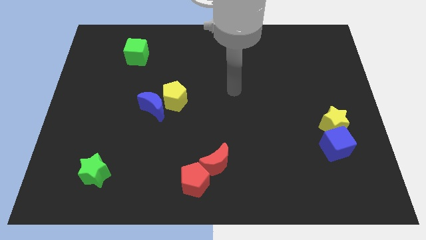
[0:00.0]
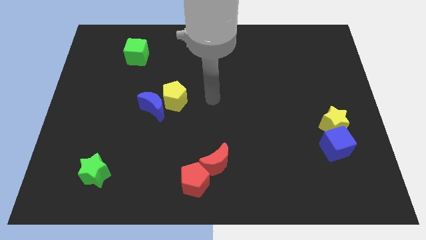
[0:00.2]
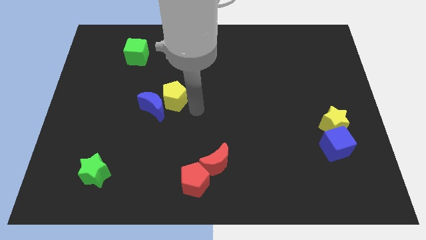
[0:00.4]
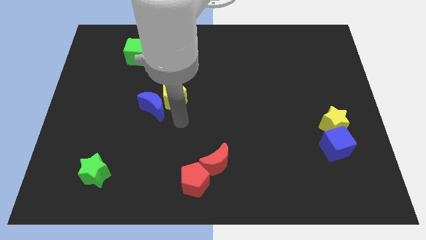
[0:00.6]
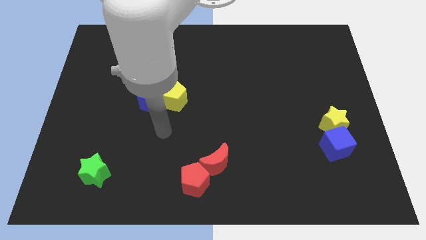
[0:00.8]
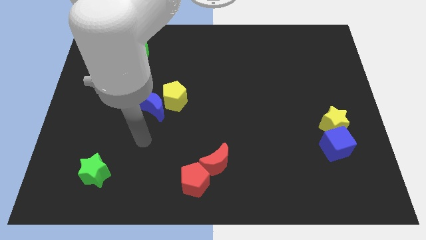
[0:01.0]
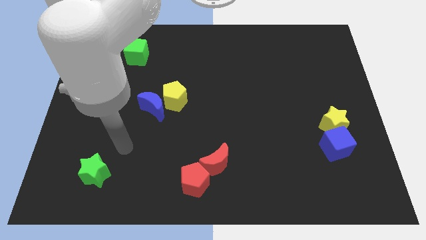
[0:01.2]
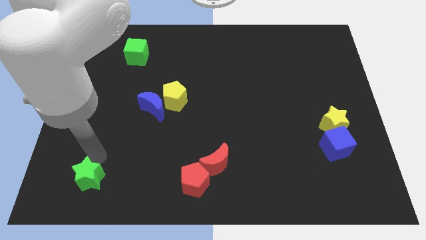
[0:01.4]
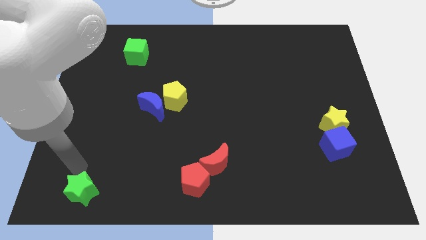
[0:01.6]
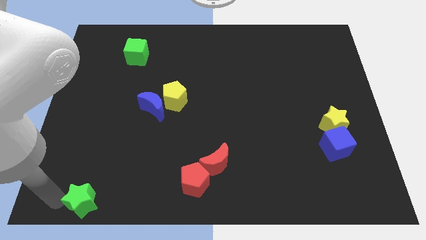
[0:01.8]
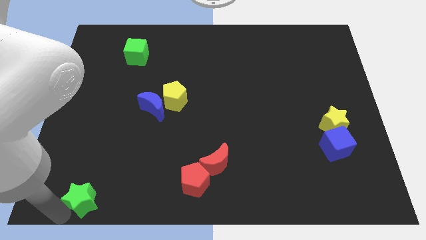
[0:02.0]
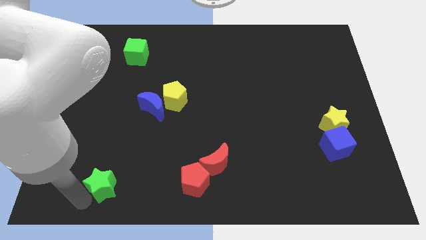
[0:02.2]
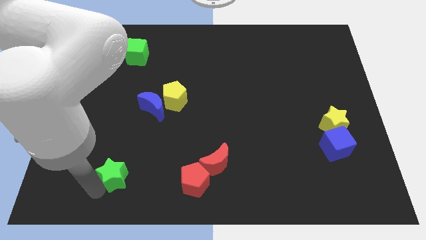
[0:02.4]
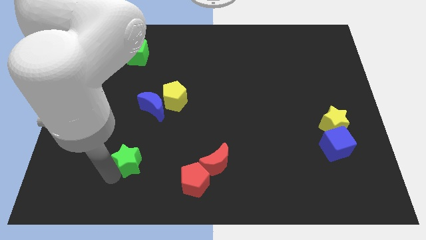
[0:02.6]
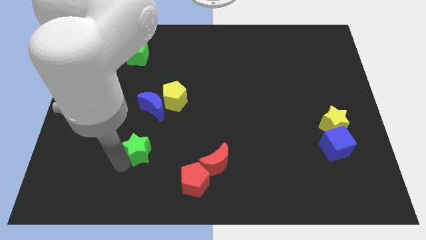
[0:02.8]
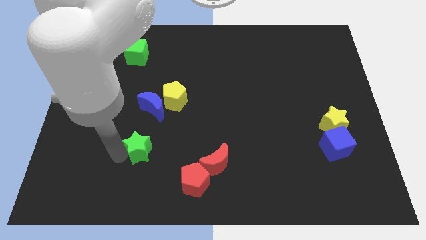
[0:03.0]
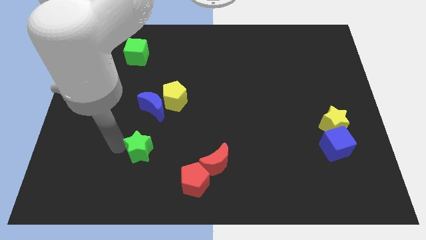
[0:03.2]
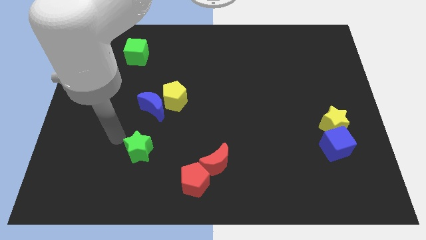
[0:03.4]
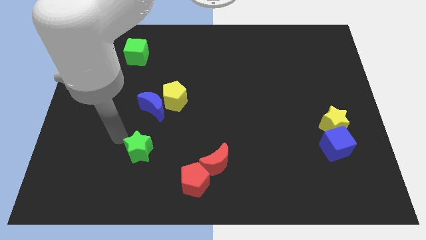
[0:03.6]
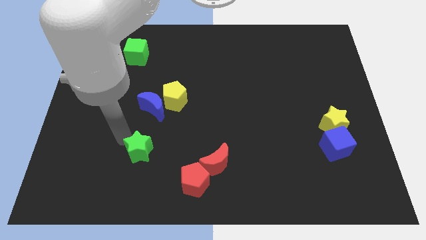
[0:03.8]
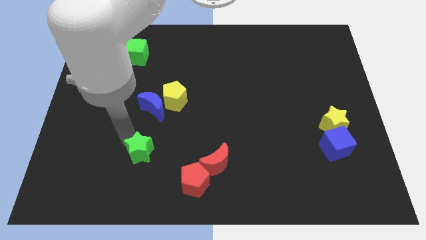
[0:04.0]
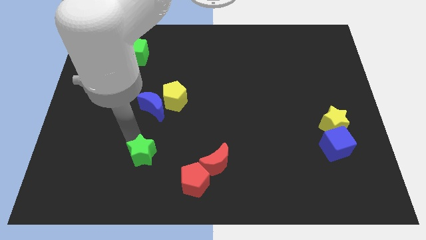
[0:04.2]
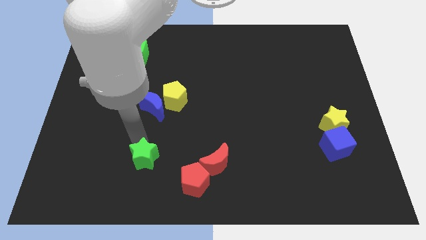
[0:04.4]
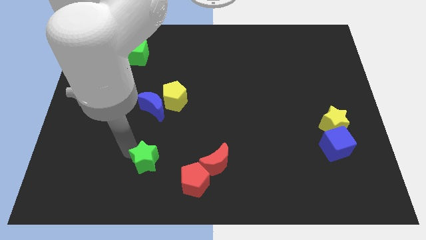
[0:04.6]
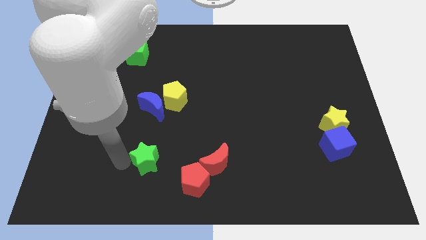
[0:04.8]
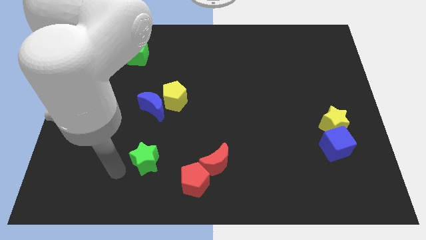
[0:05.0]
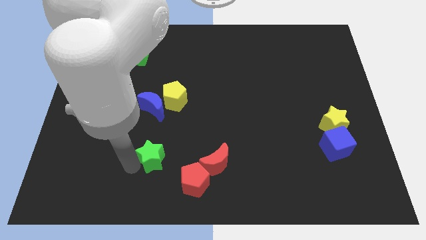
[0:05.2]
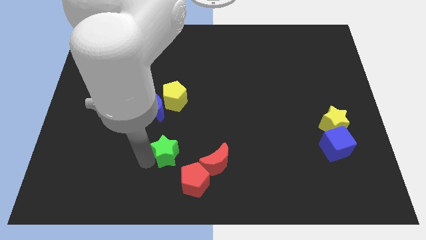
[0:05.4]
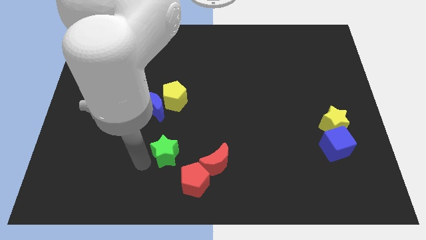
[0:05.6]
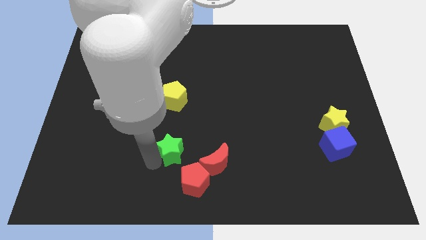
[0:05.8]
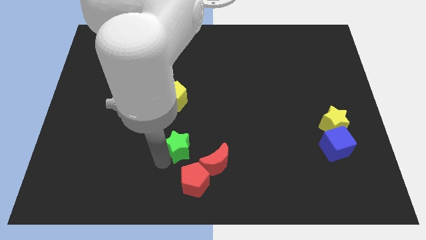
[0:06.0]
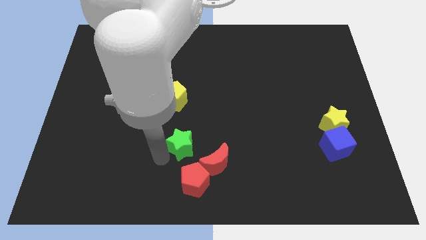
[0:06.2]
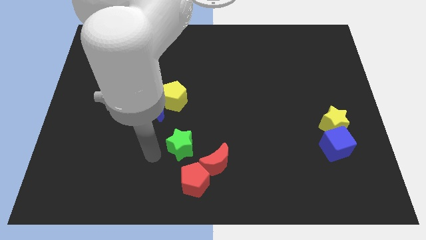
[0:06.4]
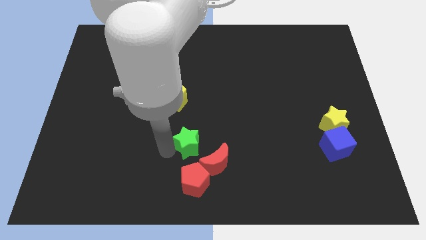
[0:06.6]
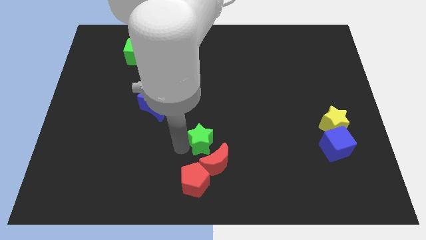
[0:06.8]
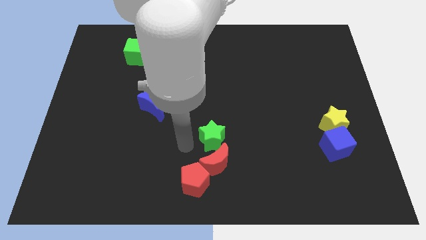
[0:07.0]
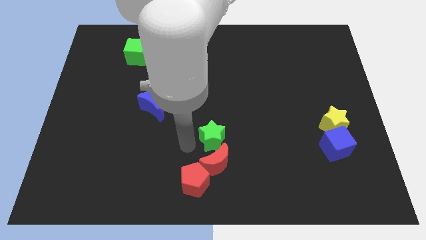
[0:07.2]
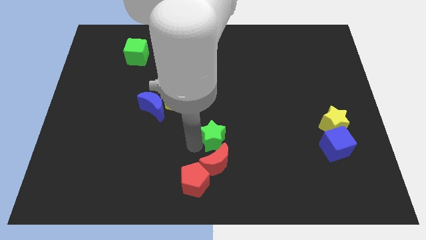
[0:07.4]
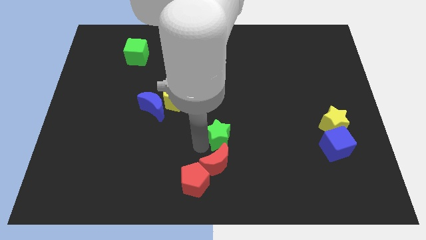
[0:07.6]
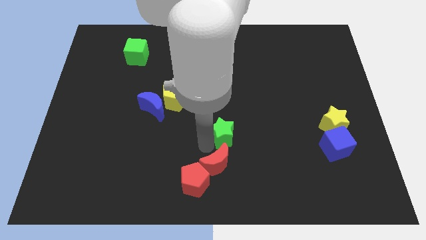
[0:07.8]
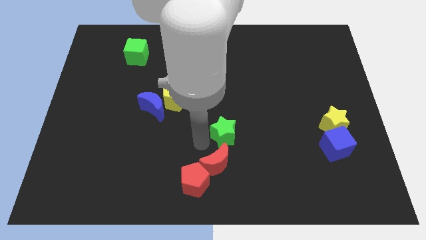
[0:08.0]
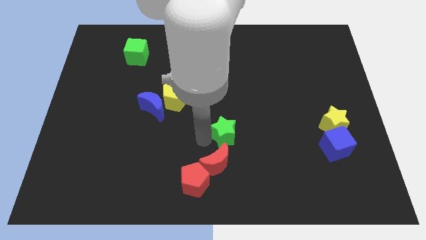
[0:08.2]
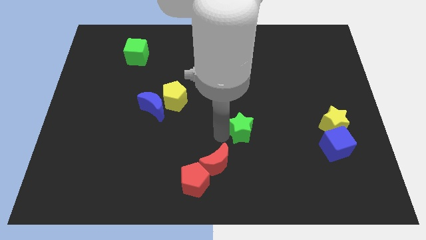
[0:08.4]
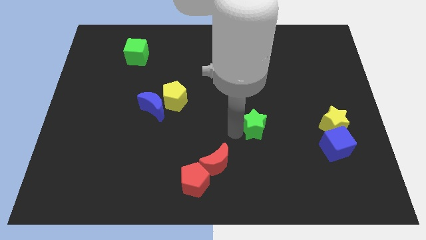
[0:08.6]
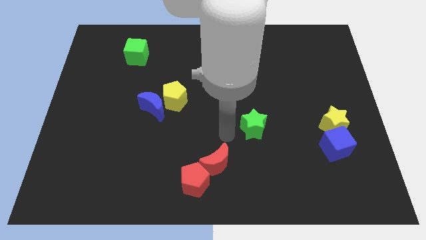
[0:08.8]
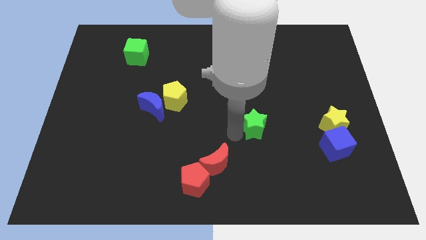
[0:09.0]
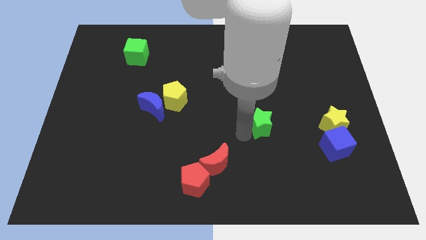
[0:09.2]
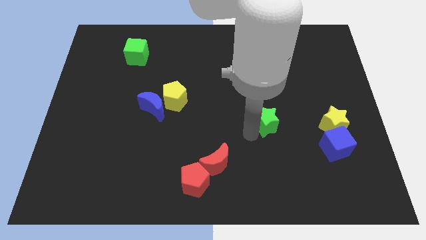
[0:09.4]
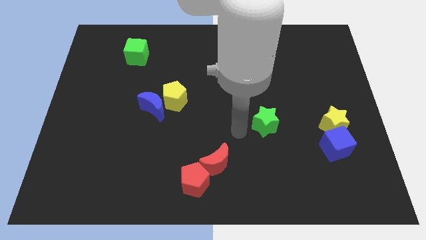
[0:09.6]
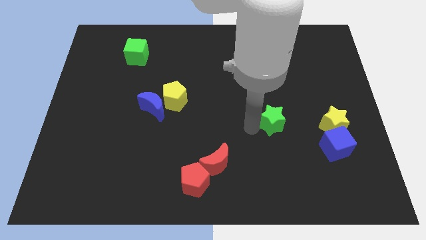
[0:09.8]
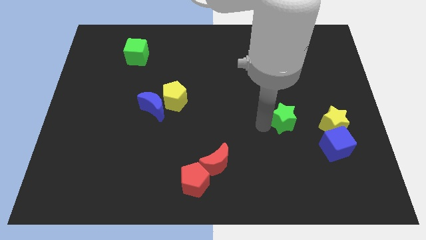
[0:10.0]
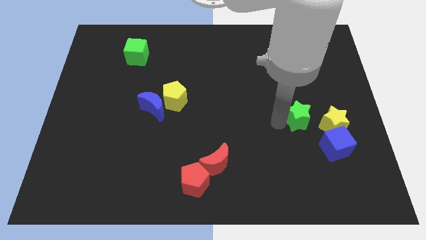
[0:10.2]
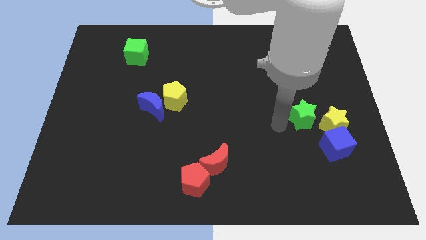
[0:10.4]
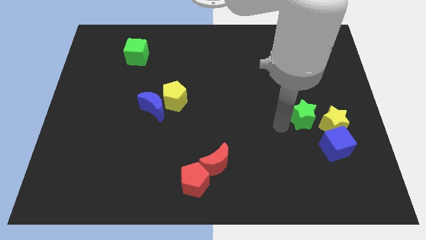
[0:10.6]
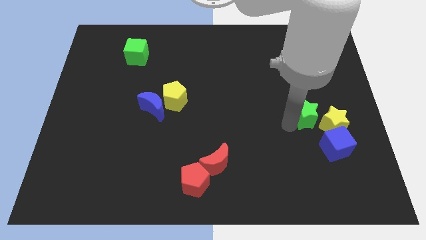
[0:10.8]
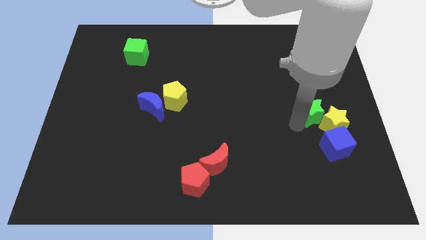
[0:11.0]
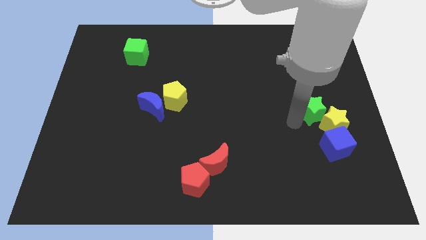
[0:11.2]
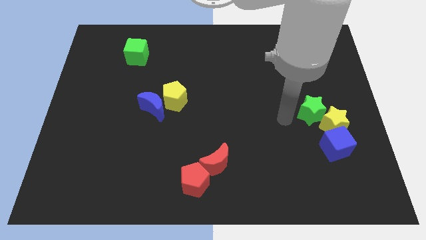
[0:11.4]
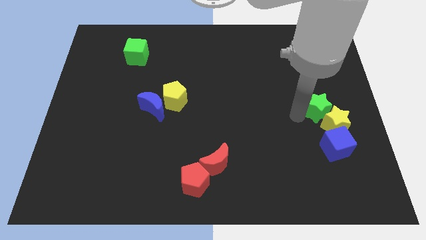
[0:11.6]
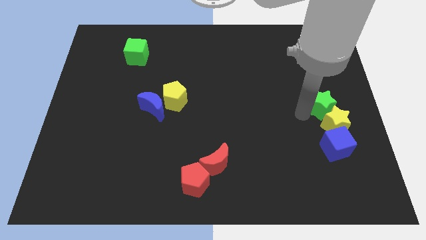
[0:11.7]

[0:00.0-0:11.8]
put the green star to the right side of the board

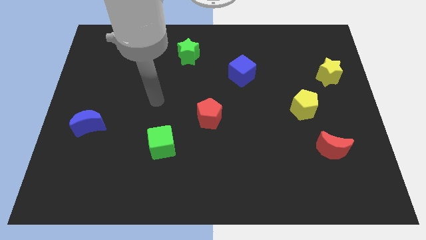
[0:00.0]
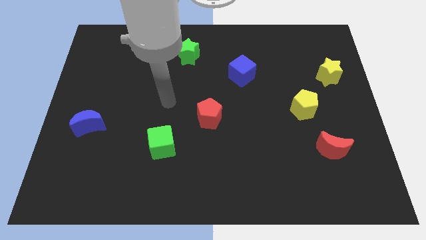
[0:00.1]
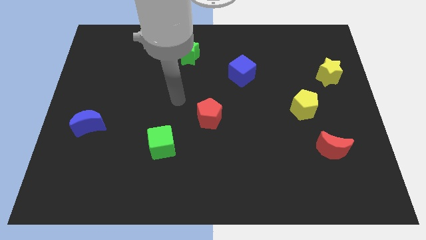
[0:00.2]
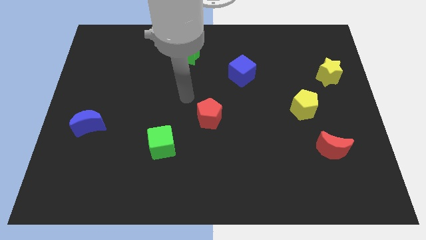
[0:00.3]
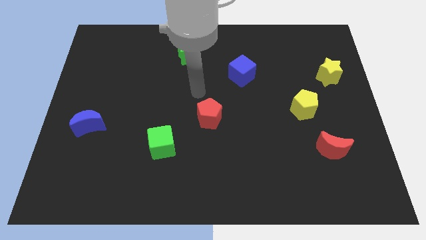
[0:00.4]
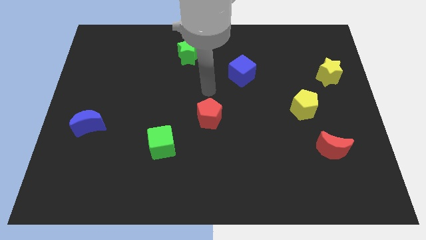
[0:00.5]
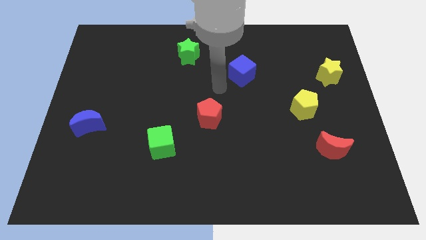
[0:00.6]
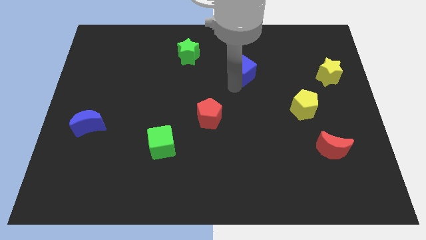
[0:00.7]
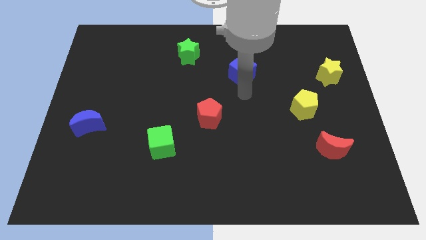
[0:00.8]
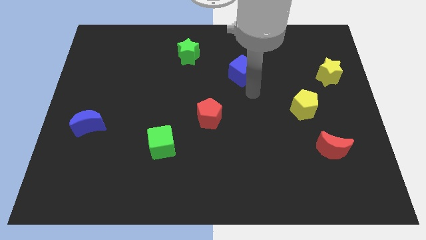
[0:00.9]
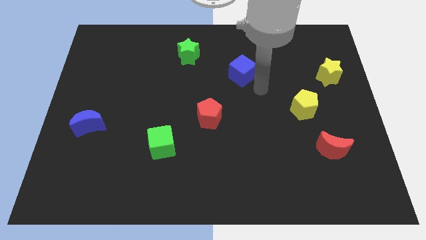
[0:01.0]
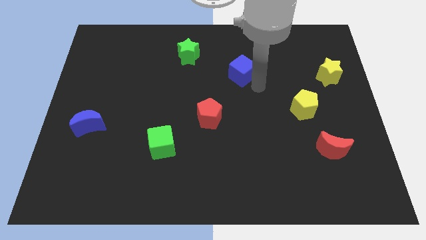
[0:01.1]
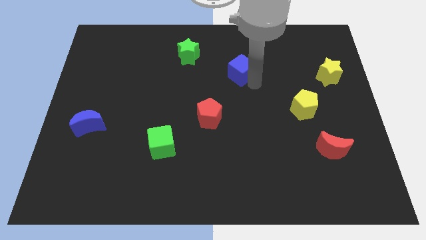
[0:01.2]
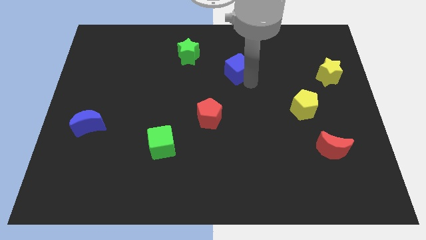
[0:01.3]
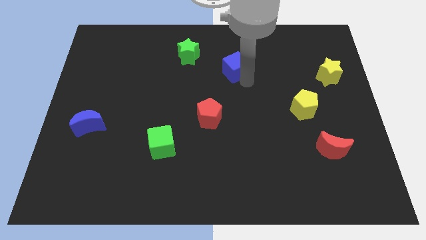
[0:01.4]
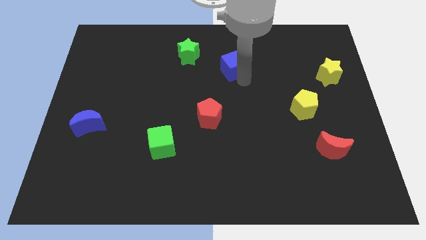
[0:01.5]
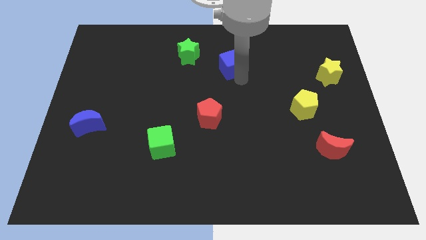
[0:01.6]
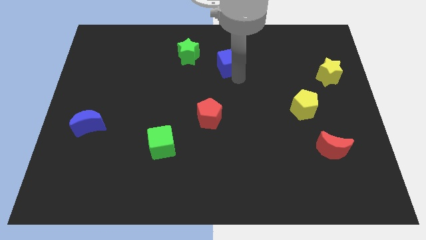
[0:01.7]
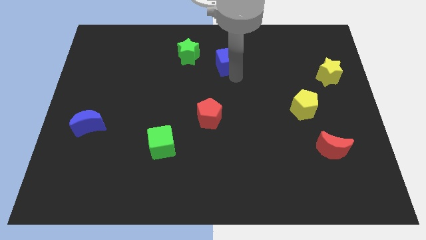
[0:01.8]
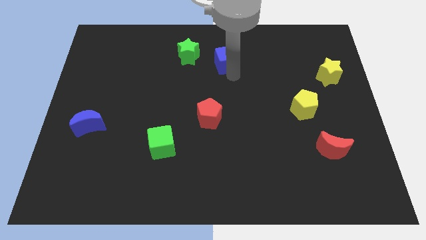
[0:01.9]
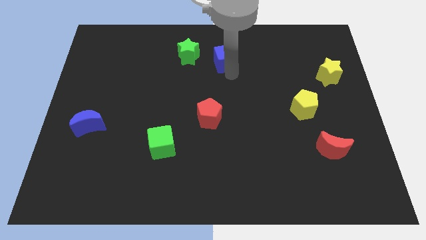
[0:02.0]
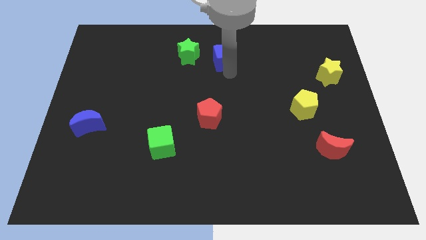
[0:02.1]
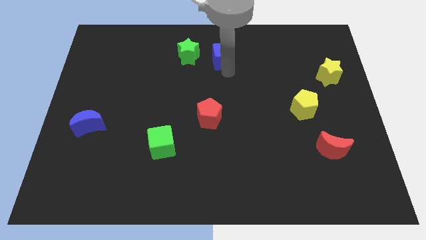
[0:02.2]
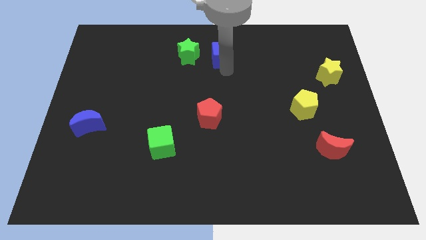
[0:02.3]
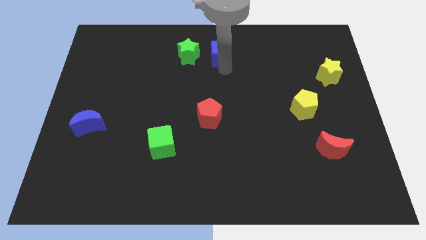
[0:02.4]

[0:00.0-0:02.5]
push the blue cube to the top
